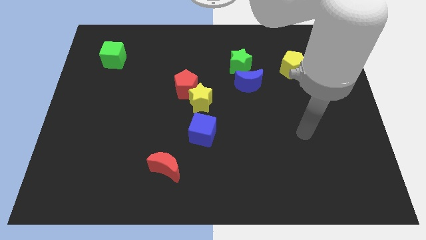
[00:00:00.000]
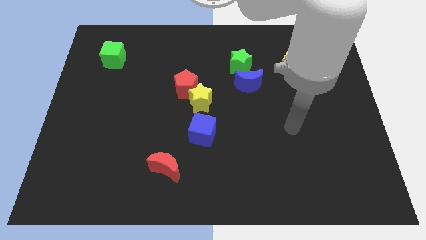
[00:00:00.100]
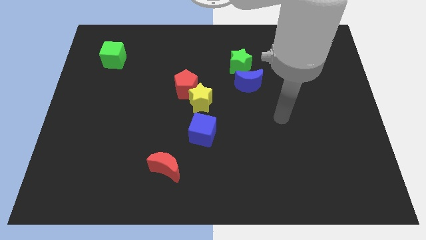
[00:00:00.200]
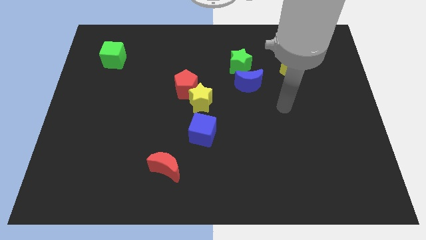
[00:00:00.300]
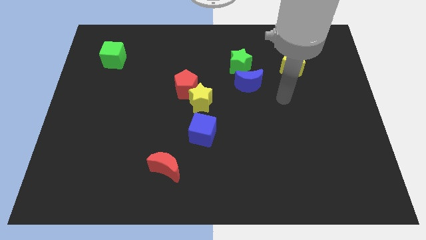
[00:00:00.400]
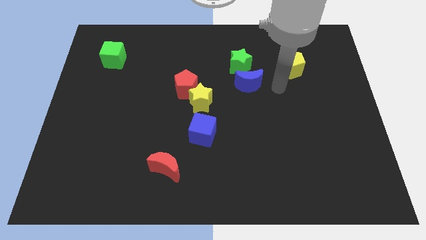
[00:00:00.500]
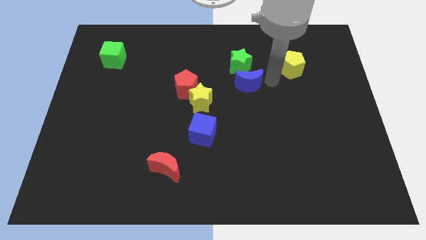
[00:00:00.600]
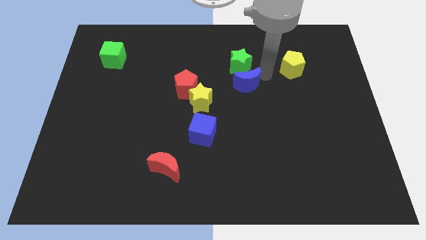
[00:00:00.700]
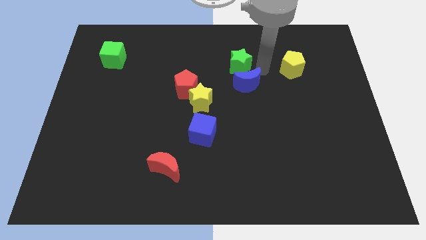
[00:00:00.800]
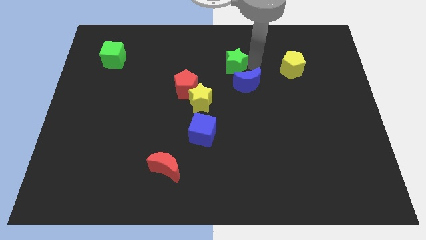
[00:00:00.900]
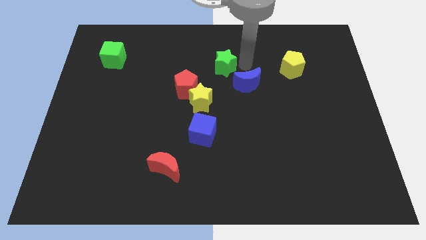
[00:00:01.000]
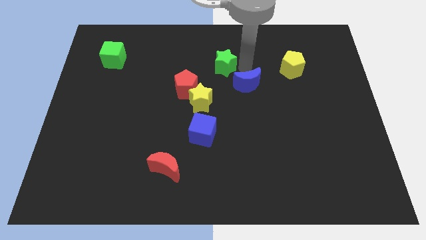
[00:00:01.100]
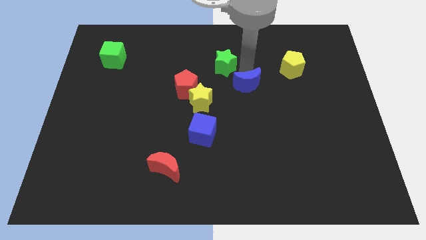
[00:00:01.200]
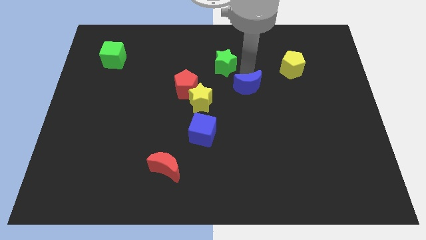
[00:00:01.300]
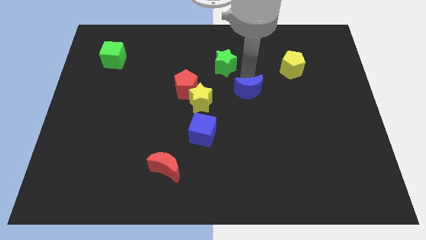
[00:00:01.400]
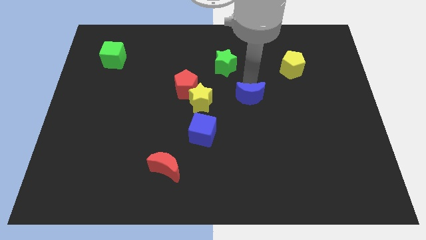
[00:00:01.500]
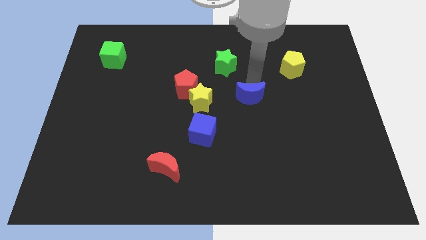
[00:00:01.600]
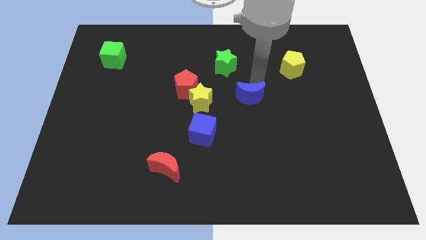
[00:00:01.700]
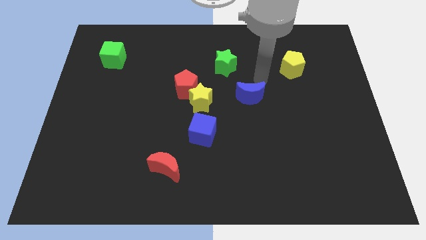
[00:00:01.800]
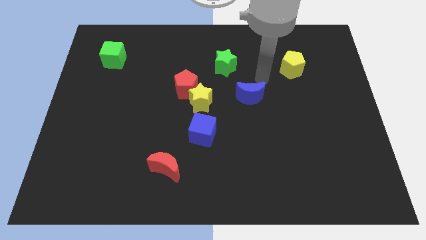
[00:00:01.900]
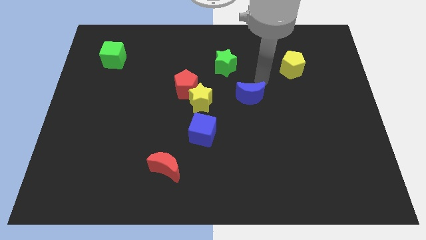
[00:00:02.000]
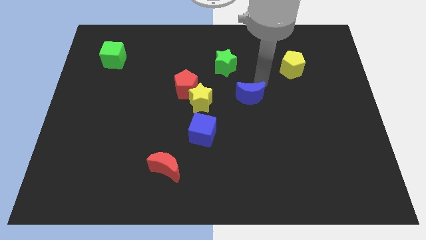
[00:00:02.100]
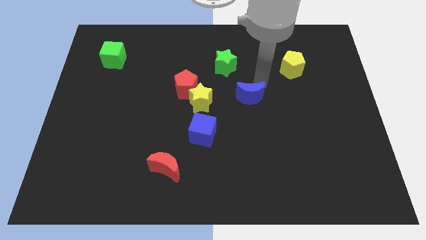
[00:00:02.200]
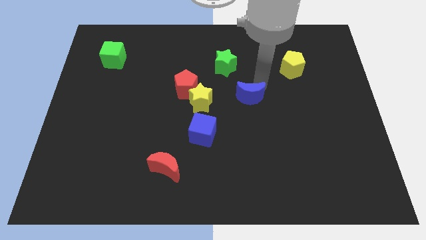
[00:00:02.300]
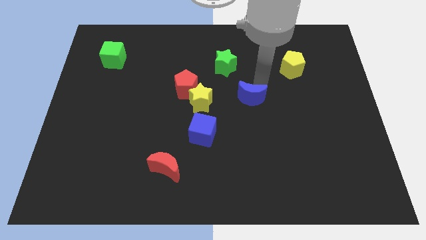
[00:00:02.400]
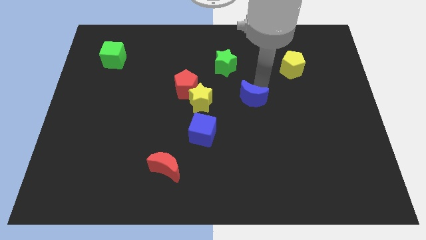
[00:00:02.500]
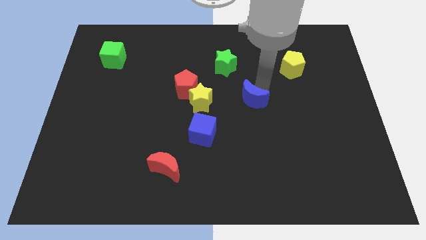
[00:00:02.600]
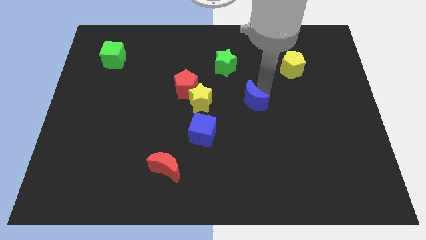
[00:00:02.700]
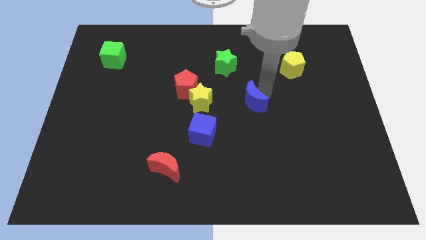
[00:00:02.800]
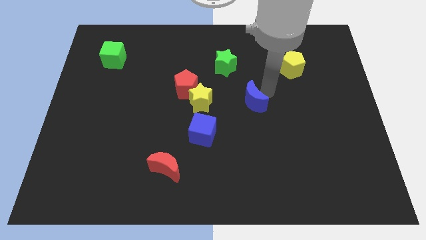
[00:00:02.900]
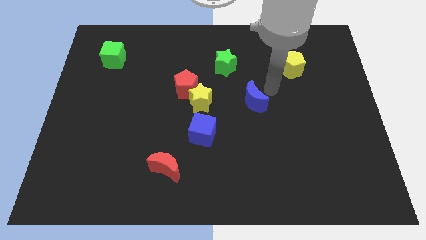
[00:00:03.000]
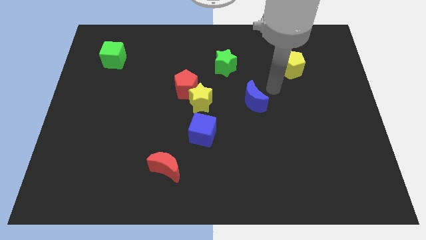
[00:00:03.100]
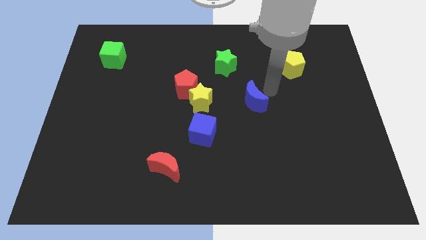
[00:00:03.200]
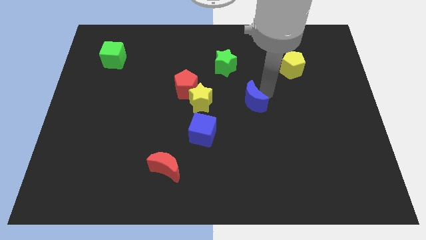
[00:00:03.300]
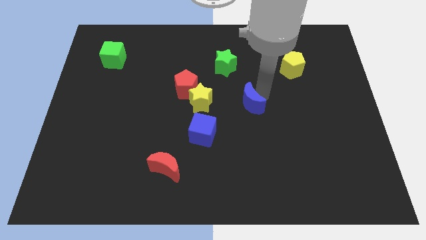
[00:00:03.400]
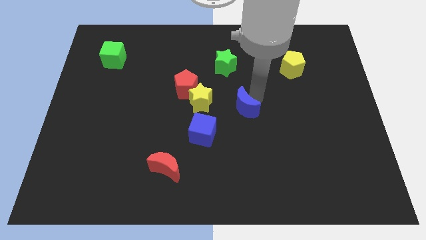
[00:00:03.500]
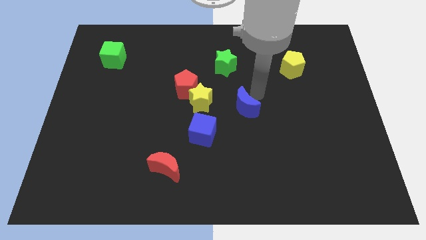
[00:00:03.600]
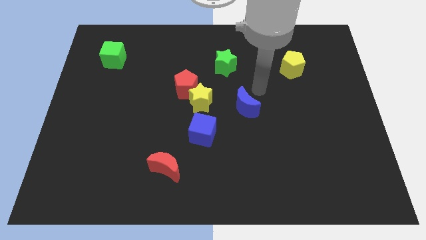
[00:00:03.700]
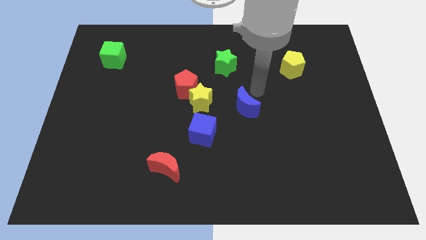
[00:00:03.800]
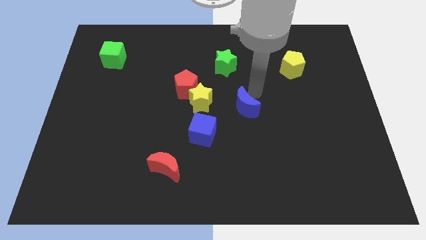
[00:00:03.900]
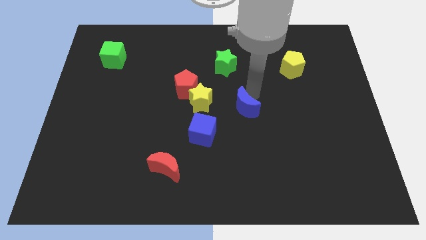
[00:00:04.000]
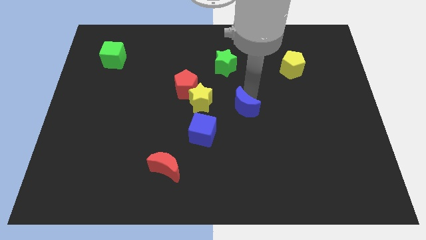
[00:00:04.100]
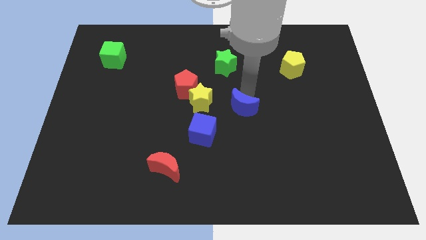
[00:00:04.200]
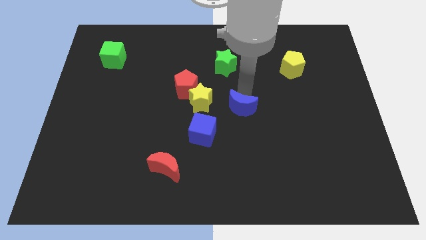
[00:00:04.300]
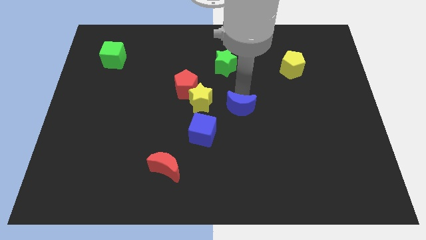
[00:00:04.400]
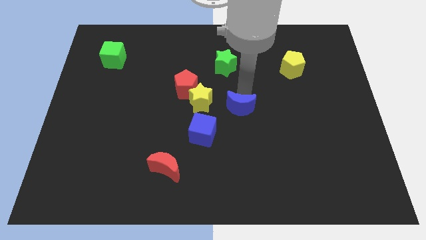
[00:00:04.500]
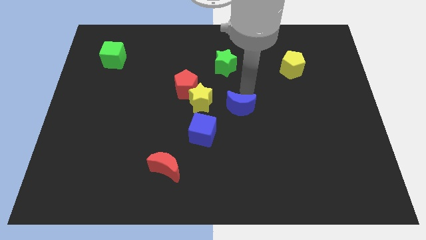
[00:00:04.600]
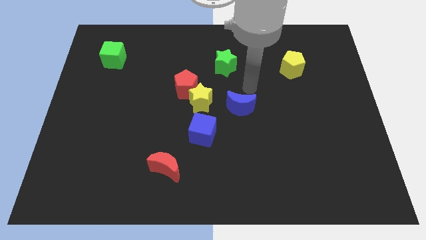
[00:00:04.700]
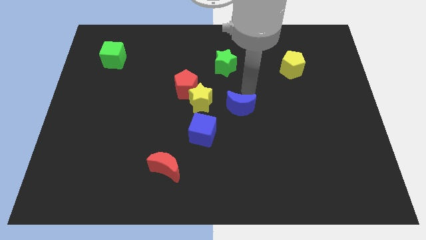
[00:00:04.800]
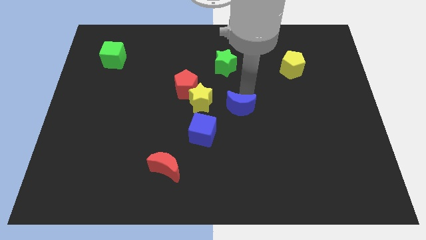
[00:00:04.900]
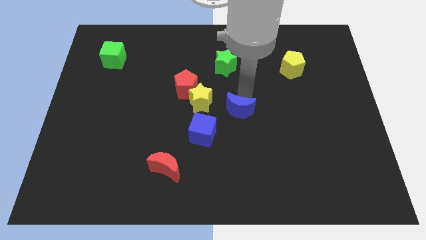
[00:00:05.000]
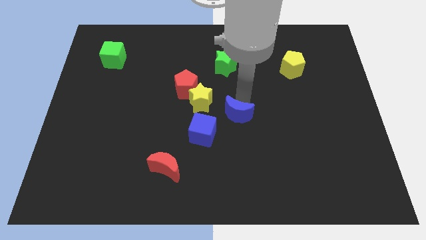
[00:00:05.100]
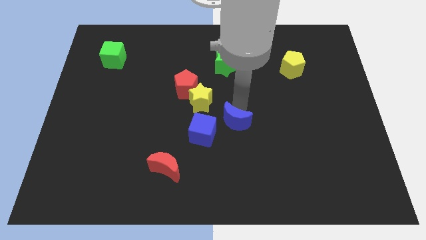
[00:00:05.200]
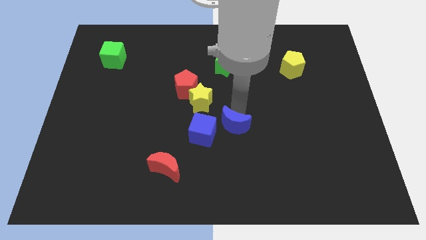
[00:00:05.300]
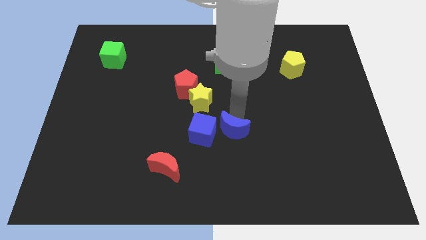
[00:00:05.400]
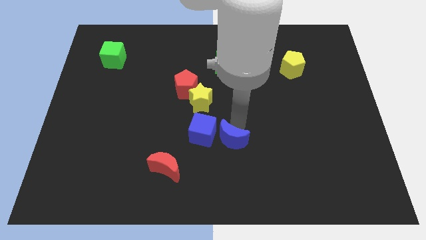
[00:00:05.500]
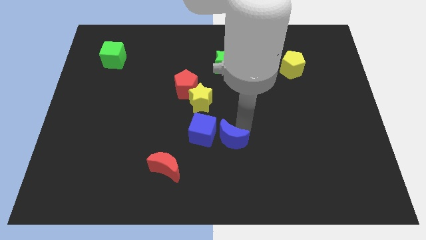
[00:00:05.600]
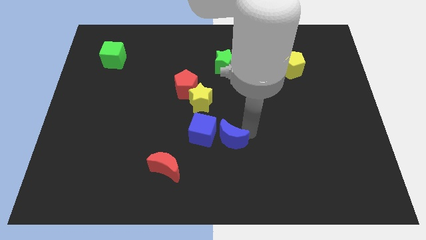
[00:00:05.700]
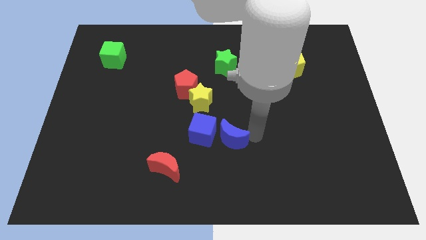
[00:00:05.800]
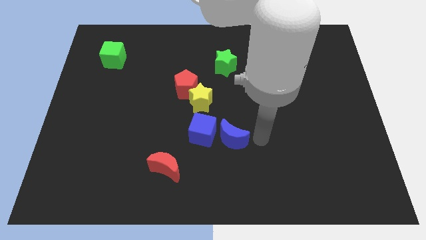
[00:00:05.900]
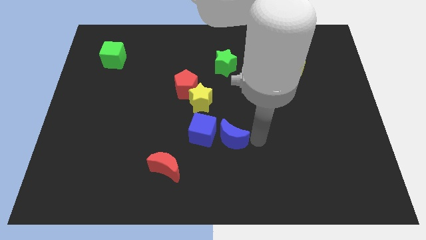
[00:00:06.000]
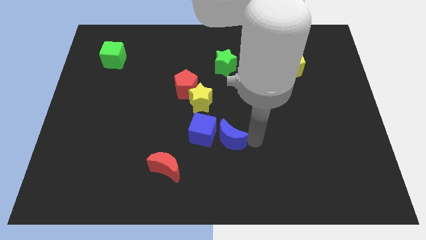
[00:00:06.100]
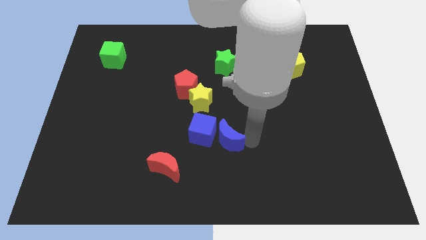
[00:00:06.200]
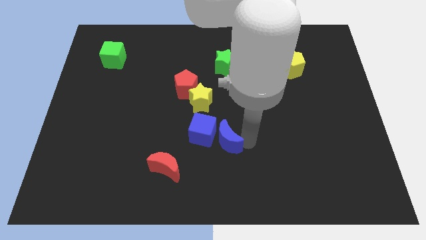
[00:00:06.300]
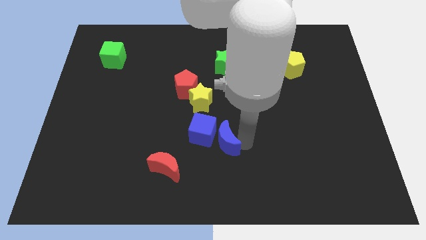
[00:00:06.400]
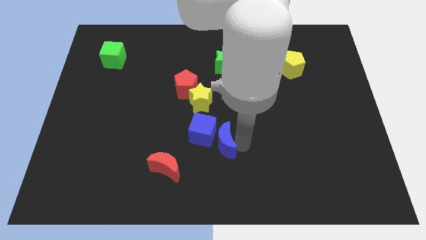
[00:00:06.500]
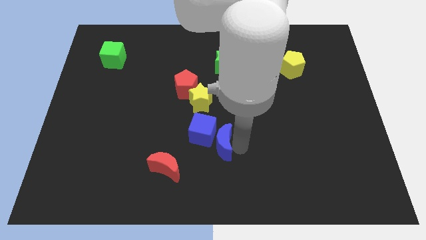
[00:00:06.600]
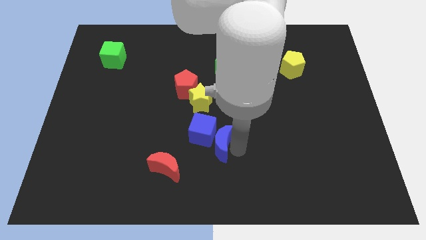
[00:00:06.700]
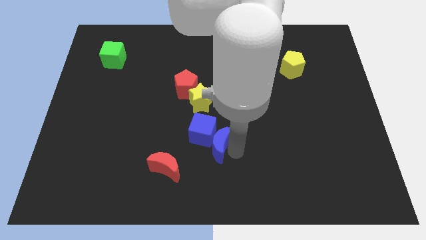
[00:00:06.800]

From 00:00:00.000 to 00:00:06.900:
push the blue moon to the bottom of the yellow star

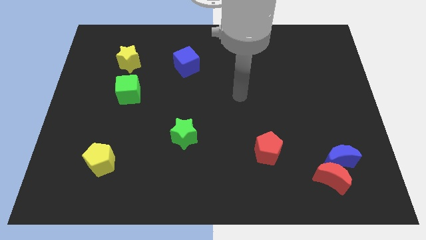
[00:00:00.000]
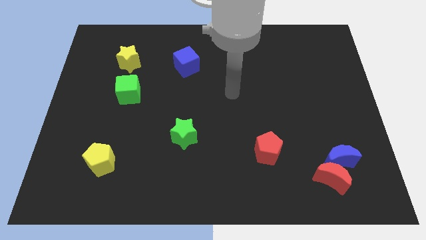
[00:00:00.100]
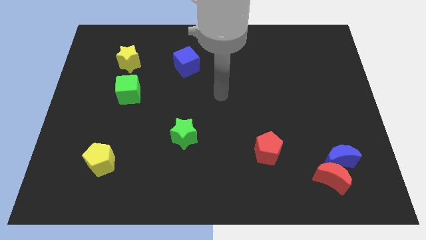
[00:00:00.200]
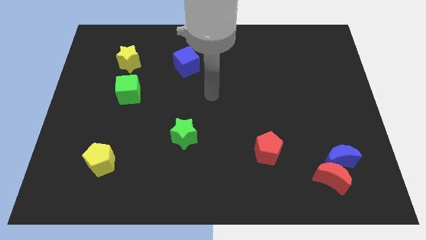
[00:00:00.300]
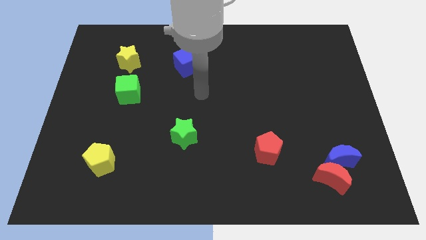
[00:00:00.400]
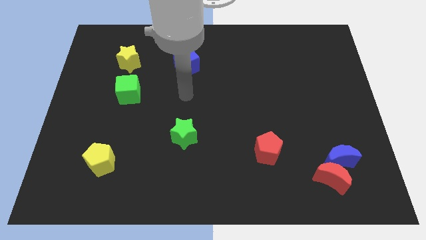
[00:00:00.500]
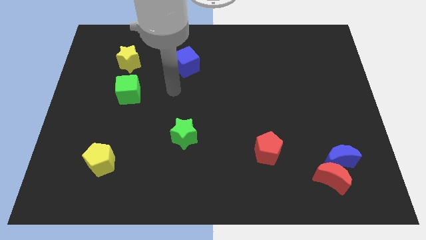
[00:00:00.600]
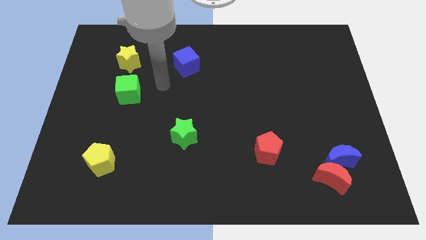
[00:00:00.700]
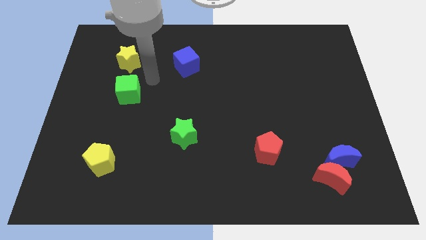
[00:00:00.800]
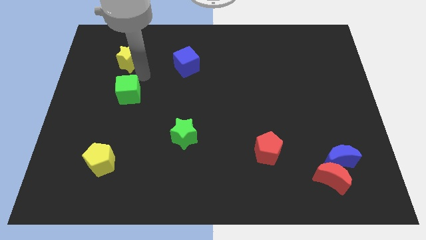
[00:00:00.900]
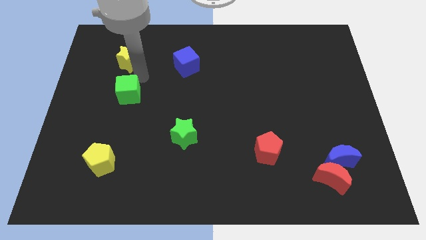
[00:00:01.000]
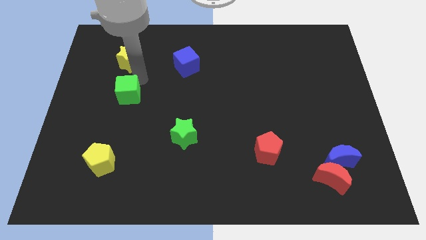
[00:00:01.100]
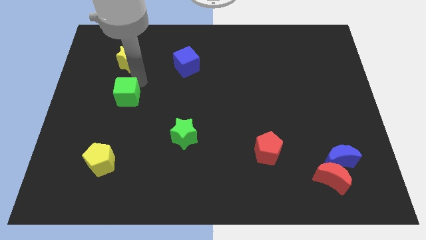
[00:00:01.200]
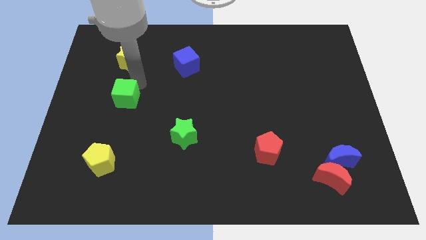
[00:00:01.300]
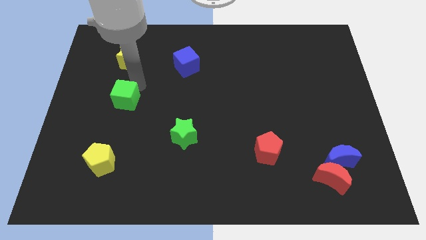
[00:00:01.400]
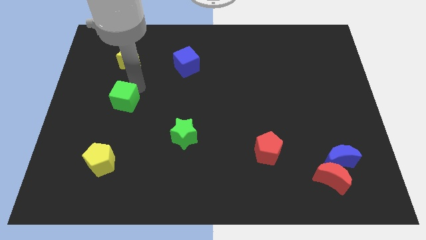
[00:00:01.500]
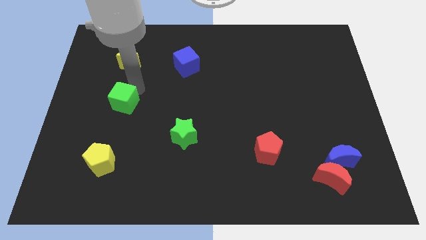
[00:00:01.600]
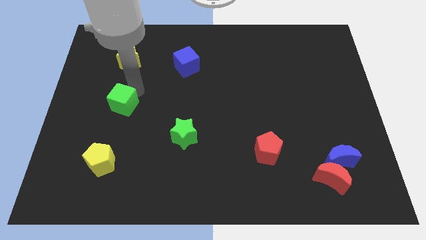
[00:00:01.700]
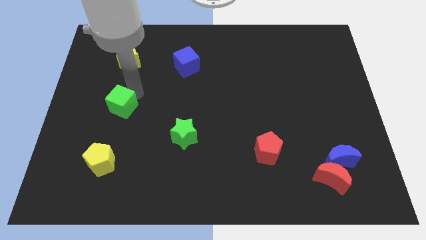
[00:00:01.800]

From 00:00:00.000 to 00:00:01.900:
slide the green cube above the yellow pentagon
